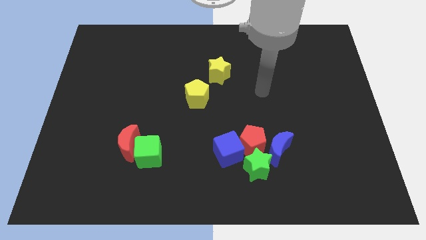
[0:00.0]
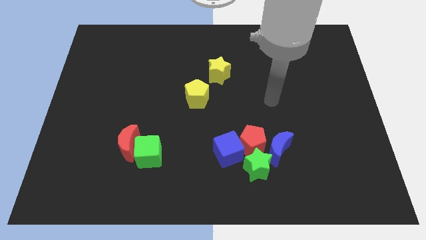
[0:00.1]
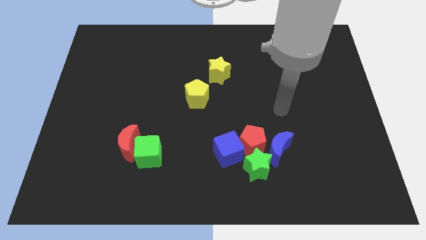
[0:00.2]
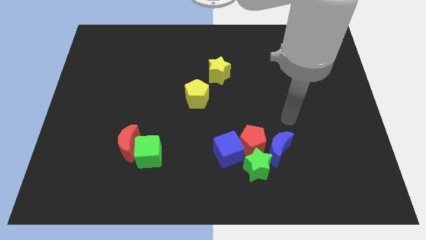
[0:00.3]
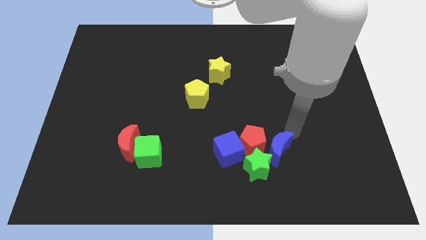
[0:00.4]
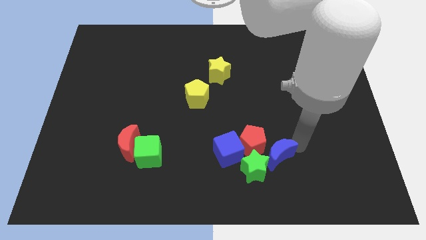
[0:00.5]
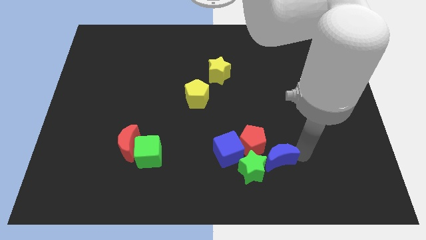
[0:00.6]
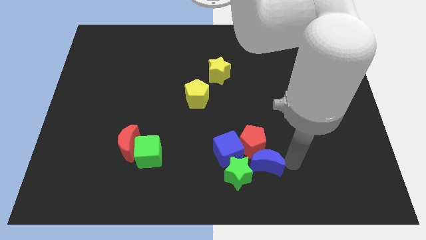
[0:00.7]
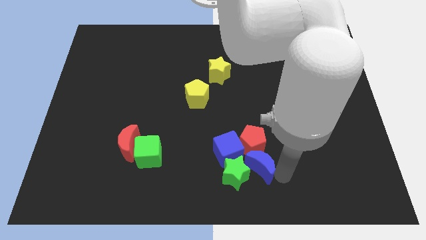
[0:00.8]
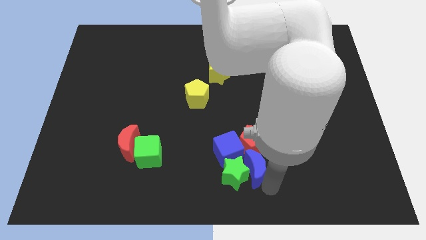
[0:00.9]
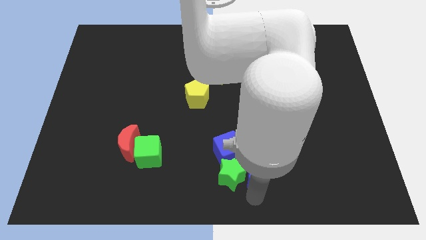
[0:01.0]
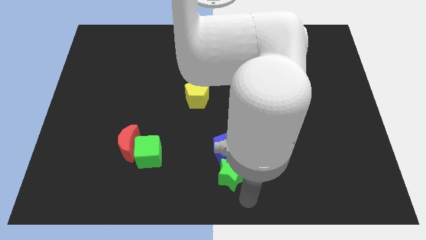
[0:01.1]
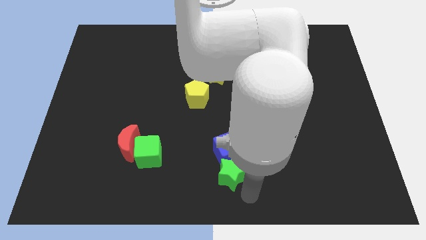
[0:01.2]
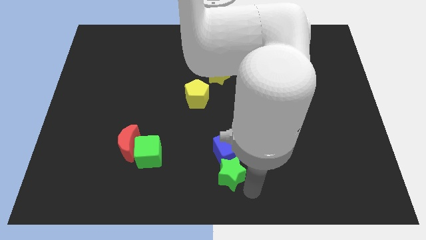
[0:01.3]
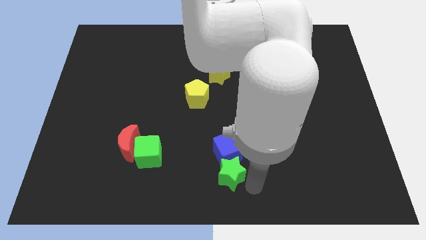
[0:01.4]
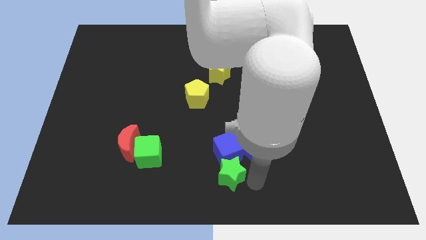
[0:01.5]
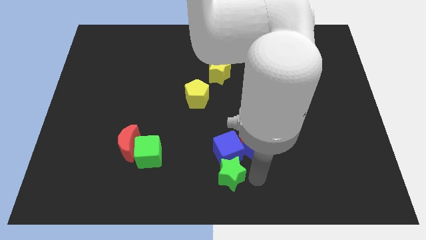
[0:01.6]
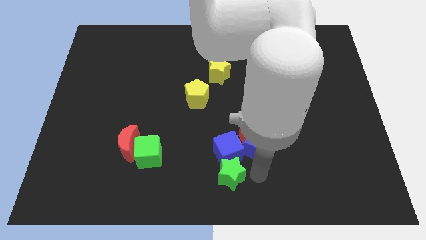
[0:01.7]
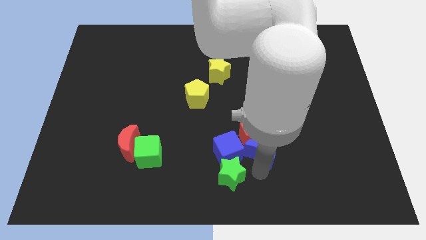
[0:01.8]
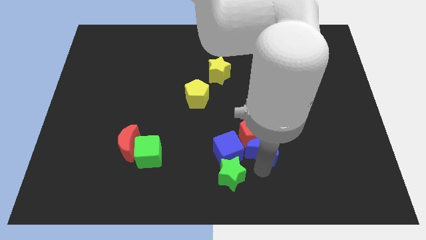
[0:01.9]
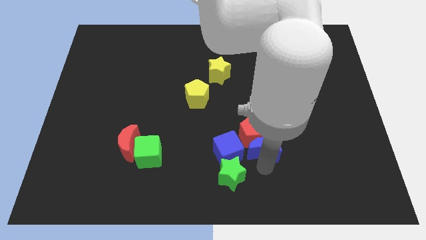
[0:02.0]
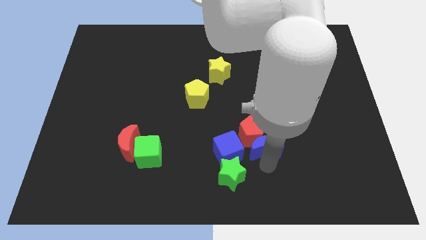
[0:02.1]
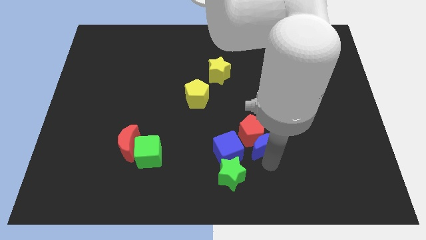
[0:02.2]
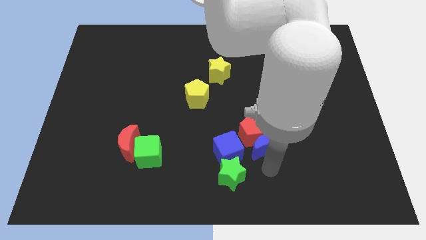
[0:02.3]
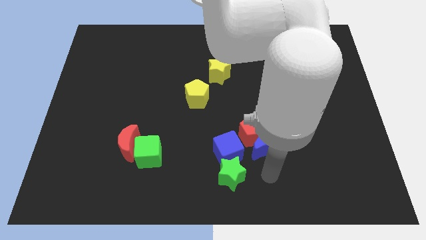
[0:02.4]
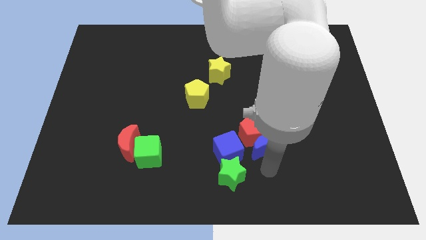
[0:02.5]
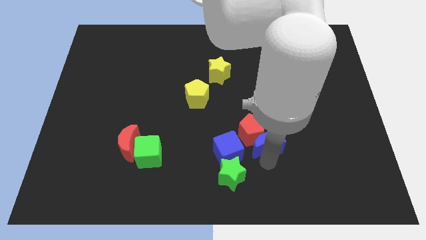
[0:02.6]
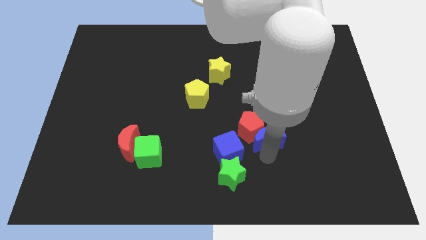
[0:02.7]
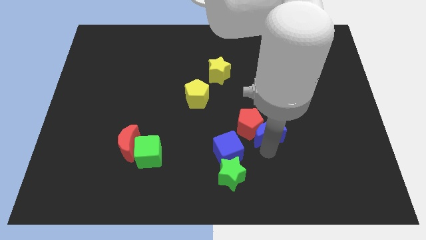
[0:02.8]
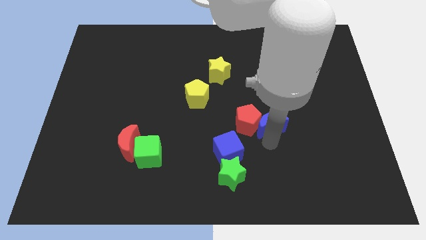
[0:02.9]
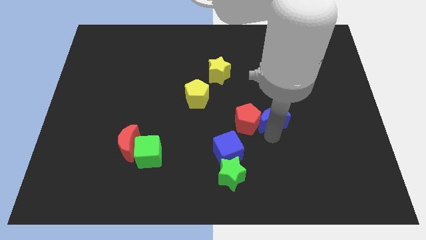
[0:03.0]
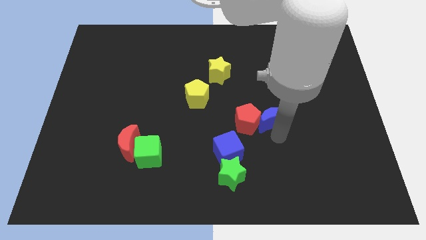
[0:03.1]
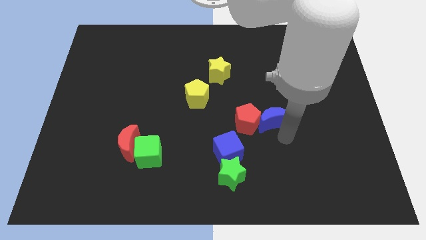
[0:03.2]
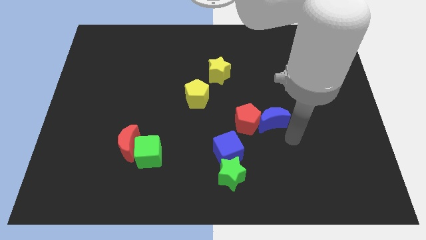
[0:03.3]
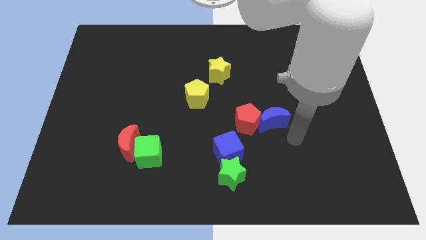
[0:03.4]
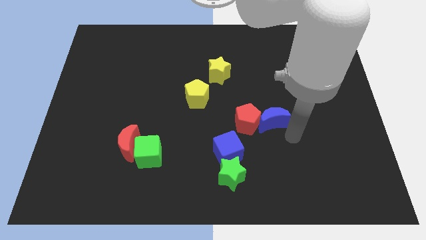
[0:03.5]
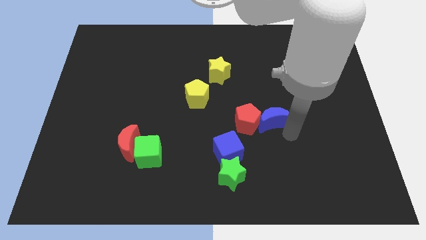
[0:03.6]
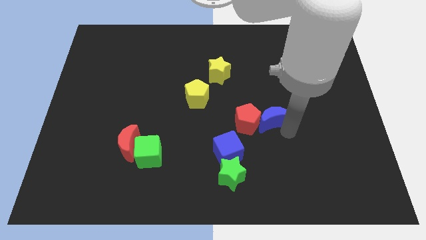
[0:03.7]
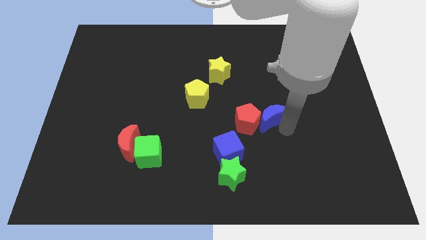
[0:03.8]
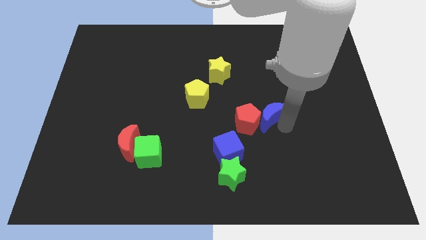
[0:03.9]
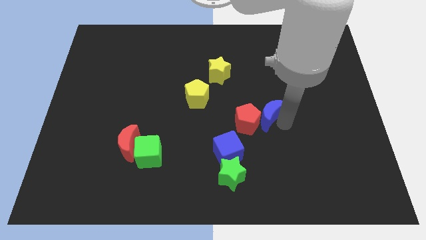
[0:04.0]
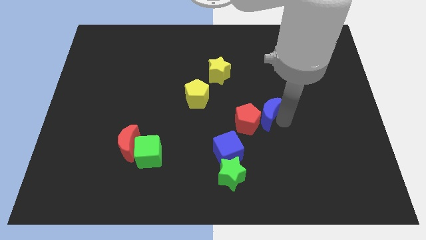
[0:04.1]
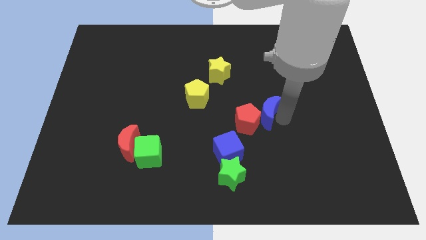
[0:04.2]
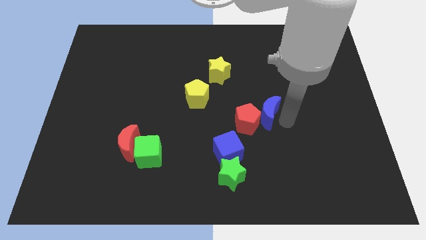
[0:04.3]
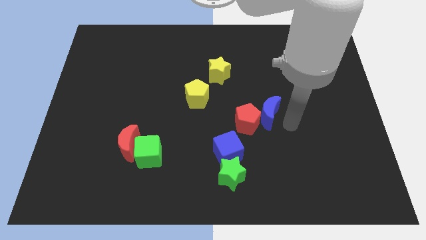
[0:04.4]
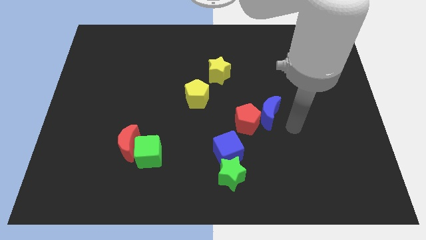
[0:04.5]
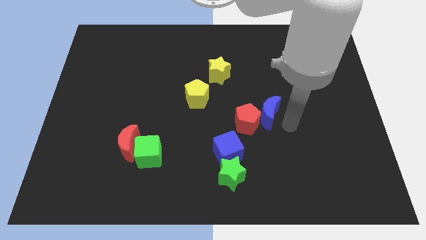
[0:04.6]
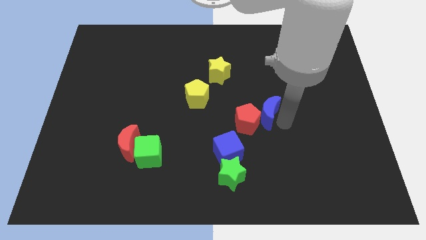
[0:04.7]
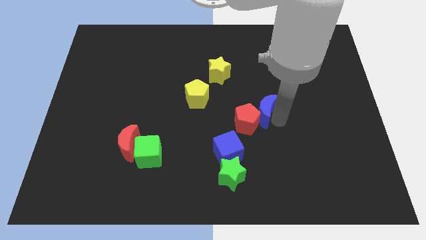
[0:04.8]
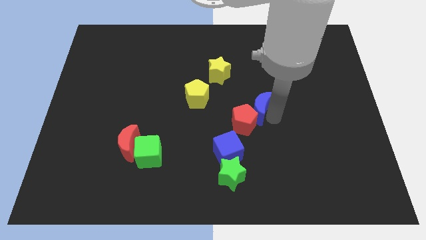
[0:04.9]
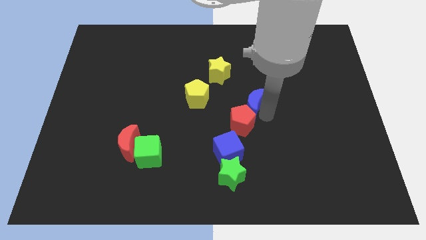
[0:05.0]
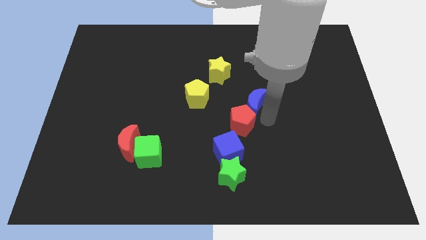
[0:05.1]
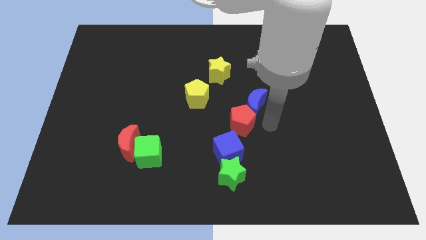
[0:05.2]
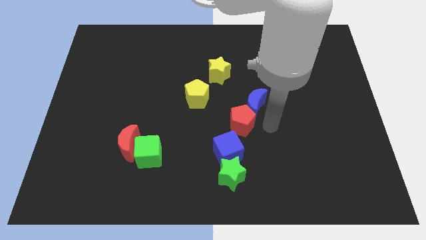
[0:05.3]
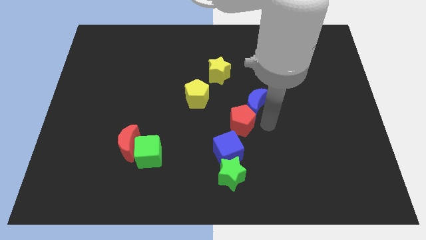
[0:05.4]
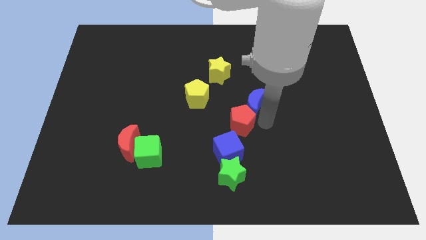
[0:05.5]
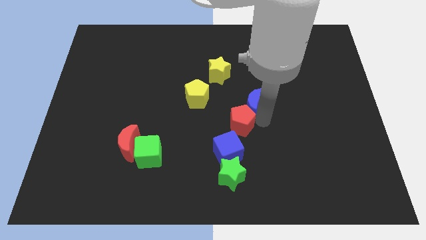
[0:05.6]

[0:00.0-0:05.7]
push the blue moon to the bottom right side of the yellow star

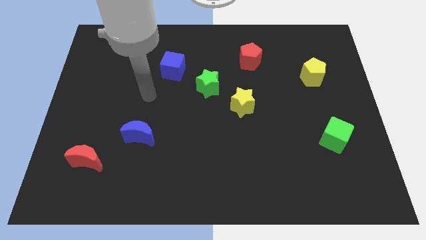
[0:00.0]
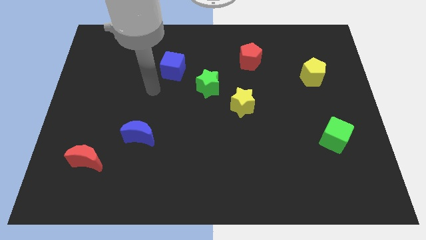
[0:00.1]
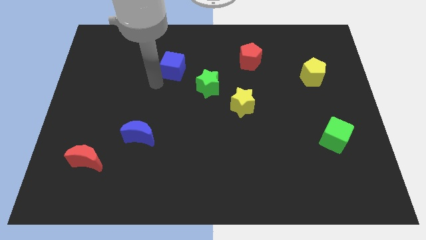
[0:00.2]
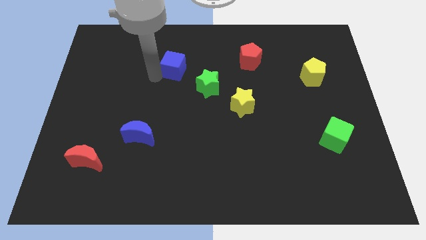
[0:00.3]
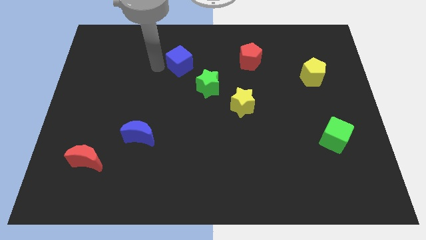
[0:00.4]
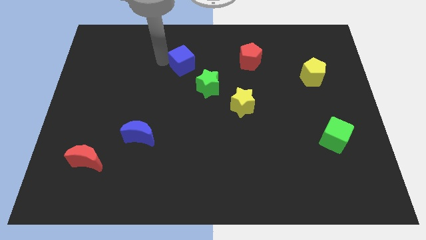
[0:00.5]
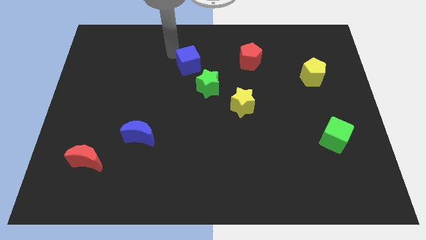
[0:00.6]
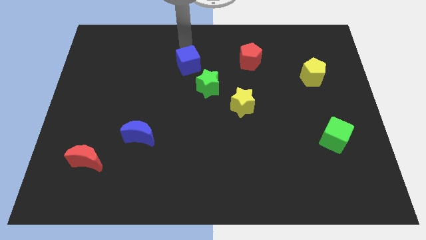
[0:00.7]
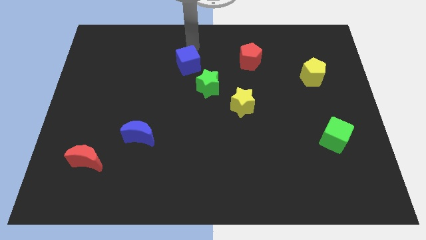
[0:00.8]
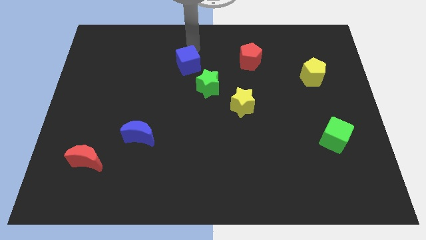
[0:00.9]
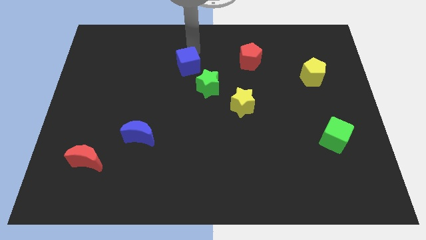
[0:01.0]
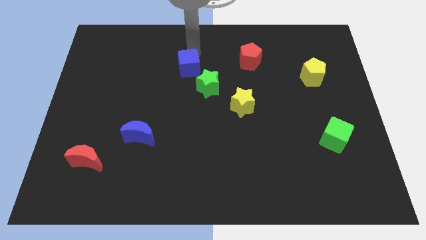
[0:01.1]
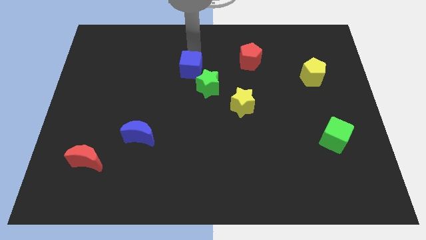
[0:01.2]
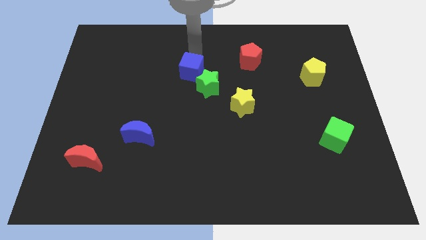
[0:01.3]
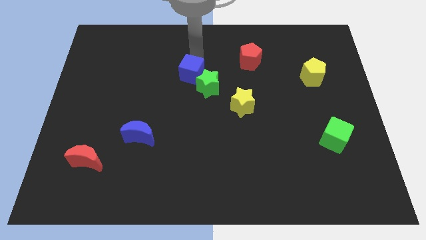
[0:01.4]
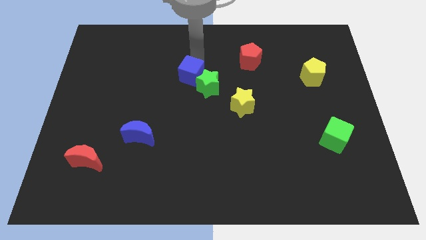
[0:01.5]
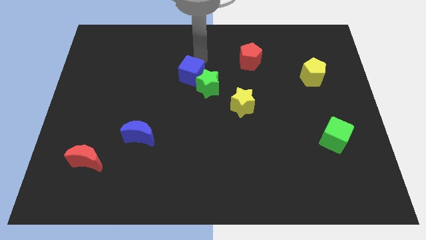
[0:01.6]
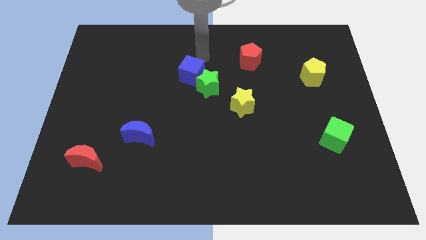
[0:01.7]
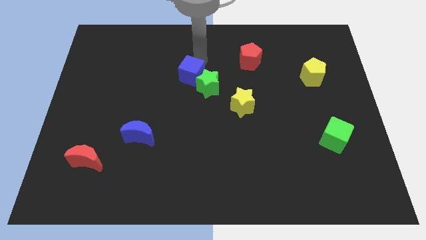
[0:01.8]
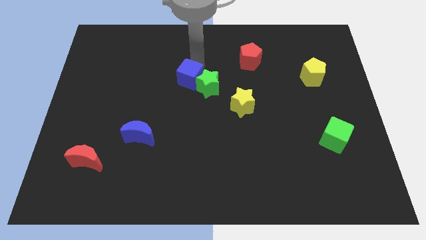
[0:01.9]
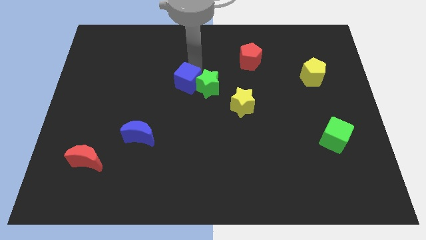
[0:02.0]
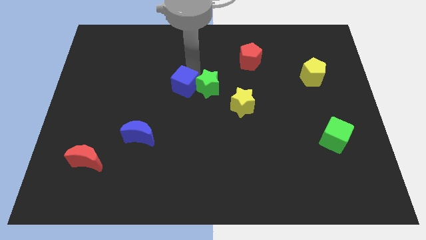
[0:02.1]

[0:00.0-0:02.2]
push the blue cube to the bottom left side of the green star
